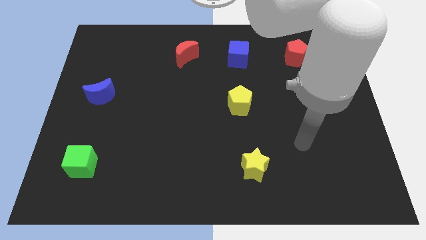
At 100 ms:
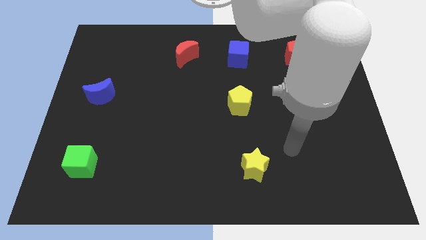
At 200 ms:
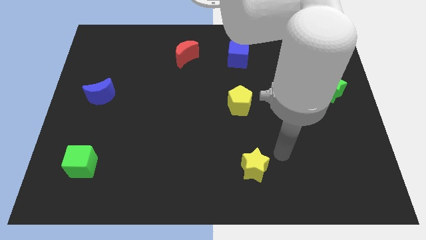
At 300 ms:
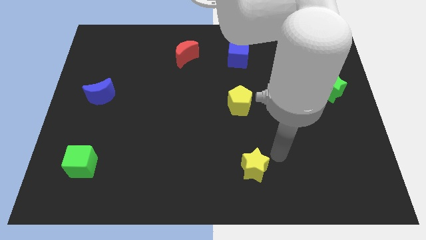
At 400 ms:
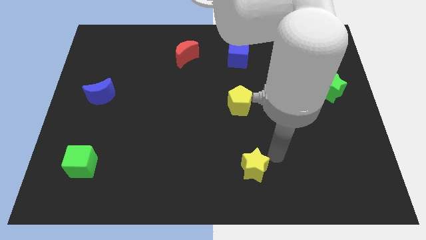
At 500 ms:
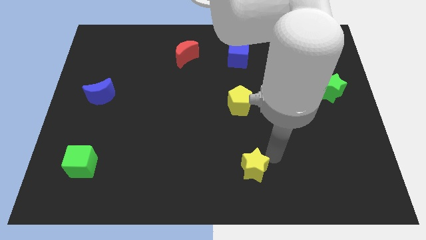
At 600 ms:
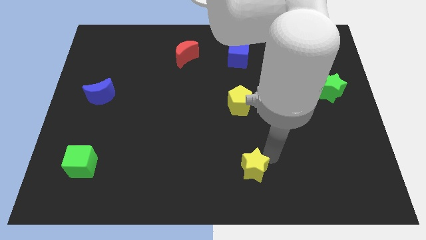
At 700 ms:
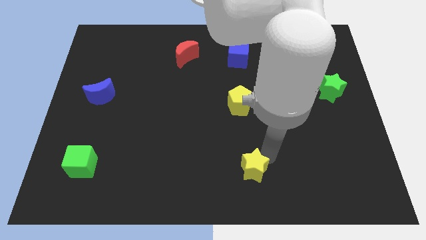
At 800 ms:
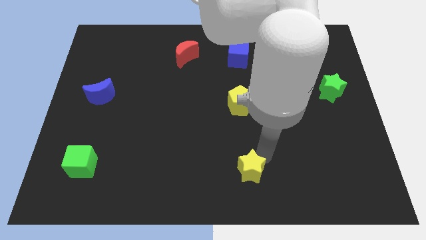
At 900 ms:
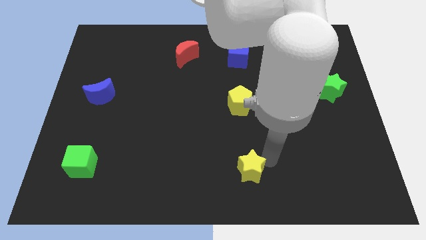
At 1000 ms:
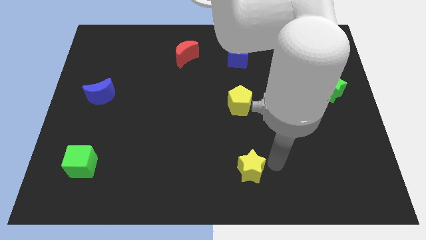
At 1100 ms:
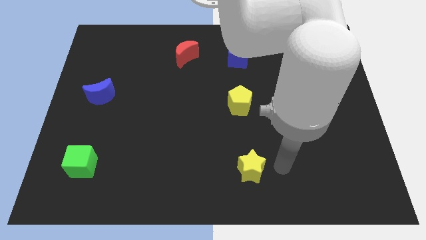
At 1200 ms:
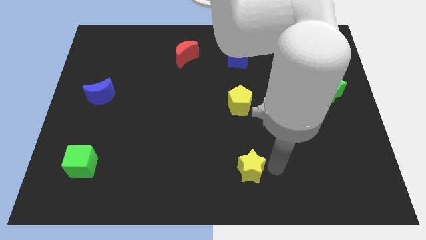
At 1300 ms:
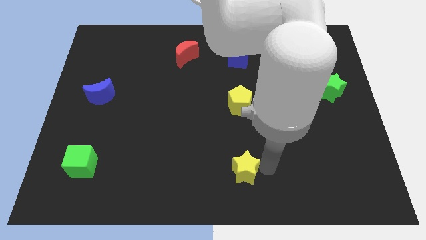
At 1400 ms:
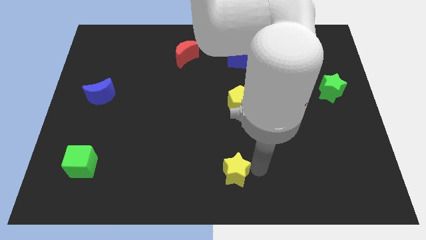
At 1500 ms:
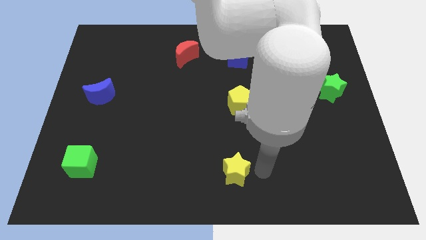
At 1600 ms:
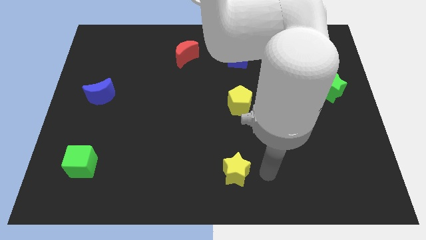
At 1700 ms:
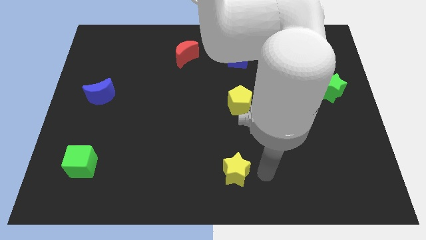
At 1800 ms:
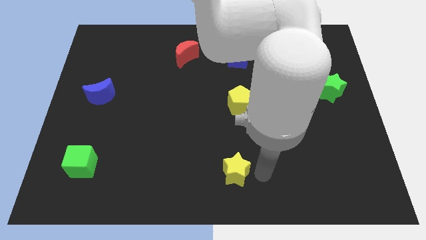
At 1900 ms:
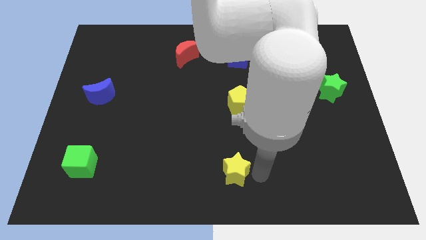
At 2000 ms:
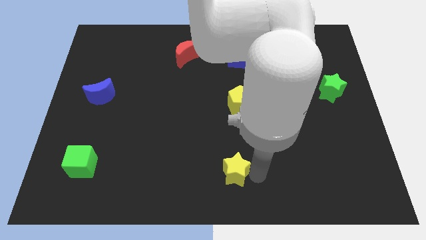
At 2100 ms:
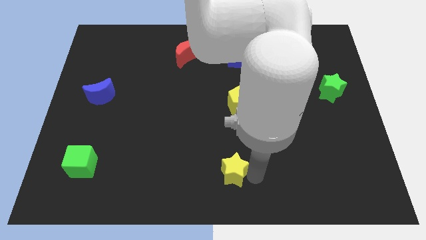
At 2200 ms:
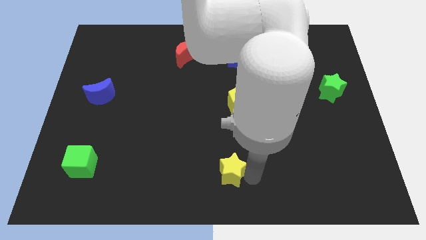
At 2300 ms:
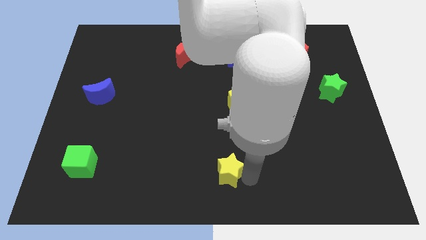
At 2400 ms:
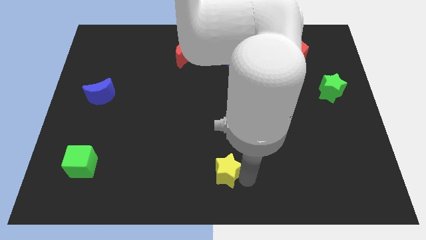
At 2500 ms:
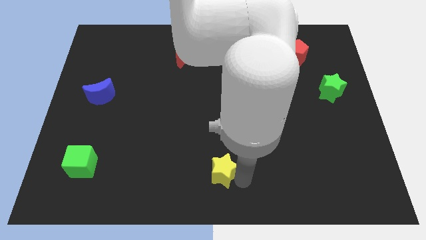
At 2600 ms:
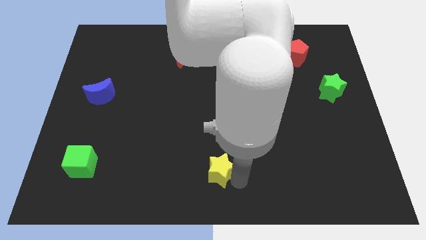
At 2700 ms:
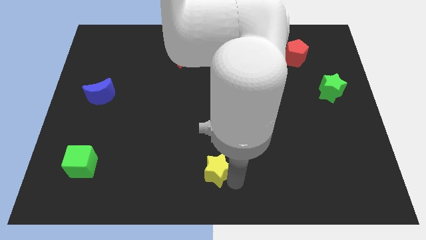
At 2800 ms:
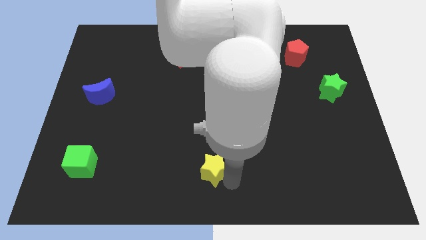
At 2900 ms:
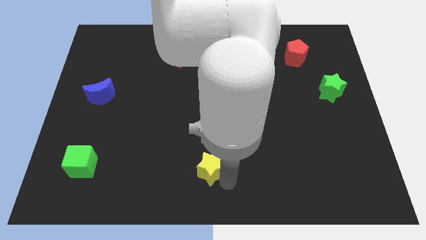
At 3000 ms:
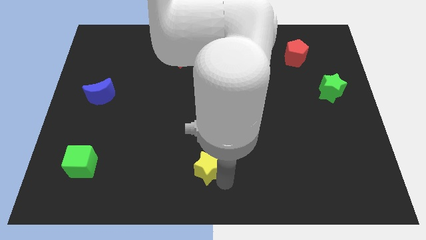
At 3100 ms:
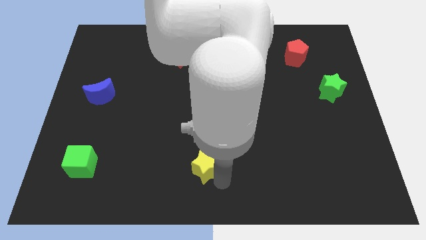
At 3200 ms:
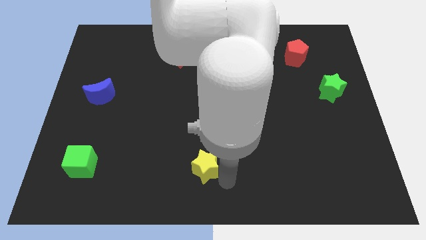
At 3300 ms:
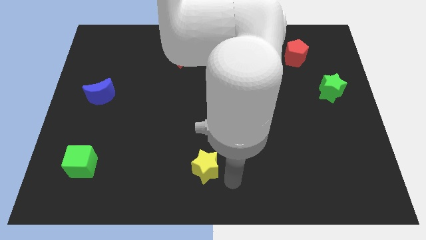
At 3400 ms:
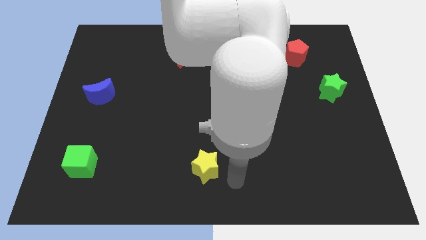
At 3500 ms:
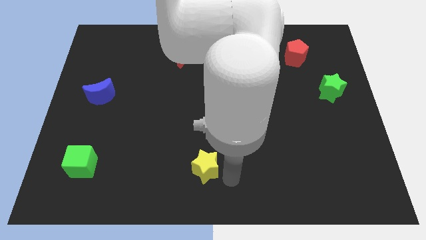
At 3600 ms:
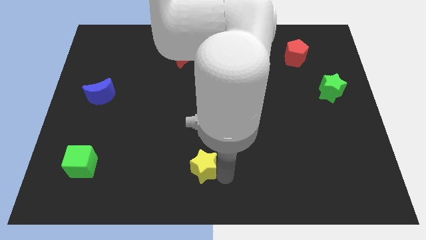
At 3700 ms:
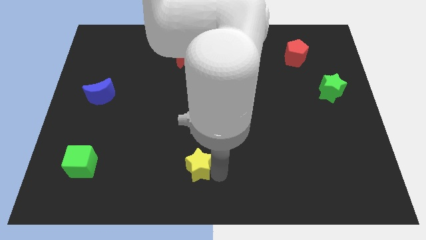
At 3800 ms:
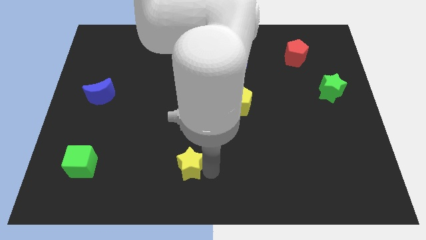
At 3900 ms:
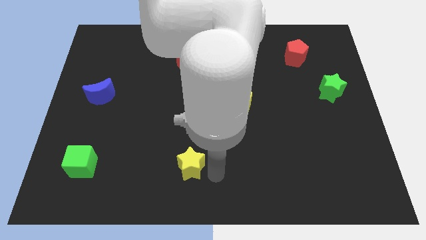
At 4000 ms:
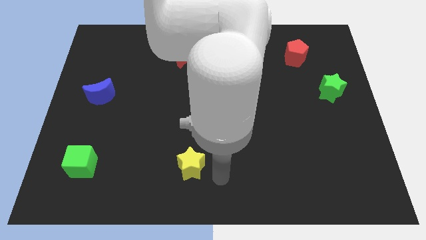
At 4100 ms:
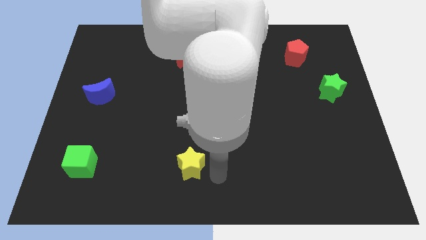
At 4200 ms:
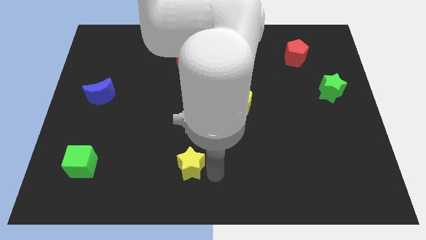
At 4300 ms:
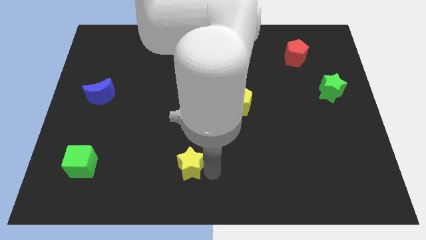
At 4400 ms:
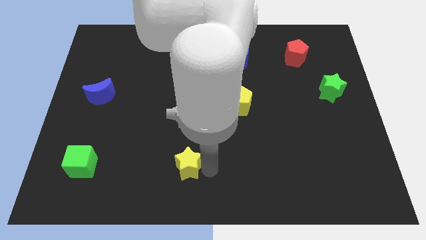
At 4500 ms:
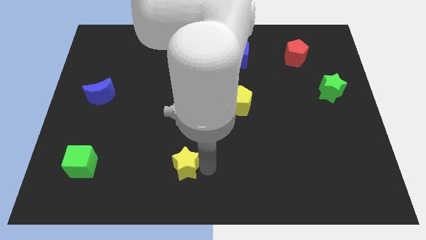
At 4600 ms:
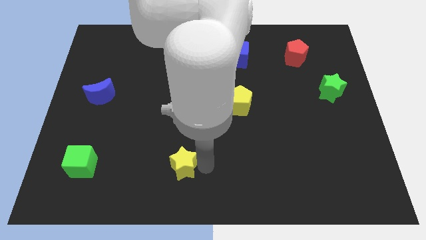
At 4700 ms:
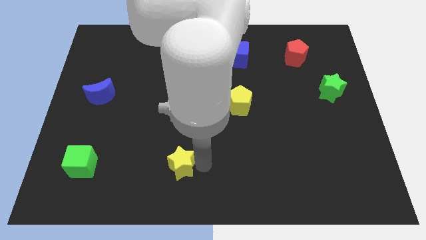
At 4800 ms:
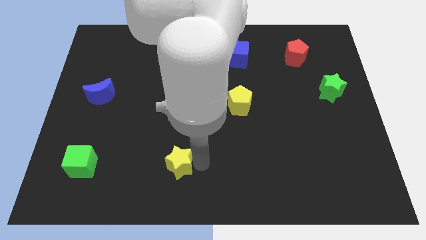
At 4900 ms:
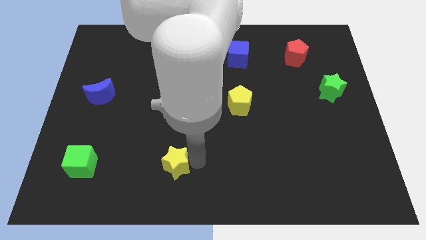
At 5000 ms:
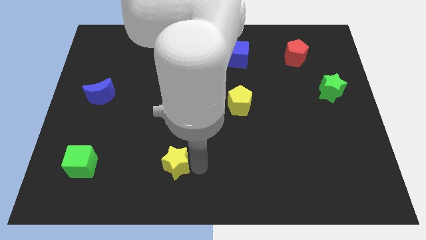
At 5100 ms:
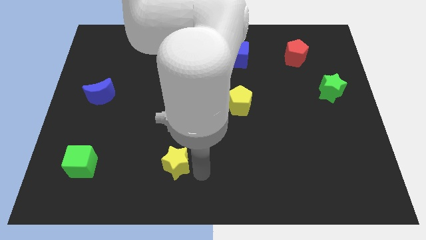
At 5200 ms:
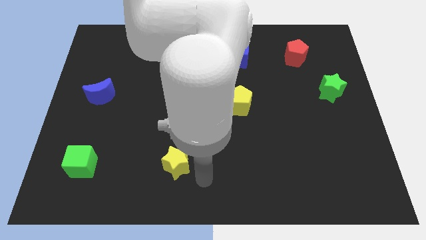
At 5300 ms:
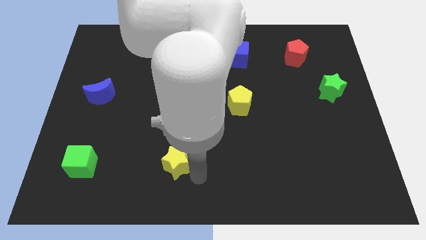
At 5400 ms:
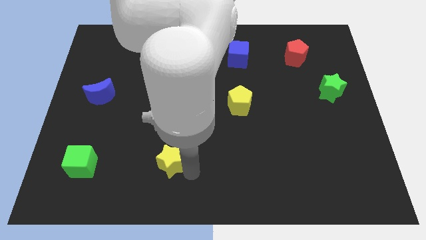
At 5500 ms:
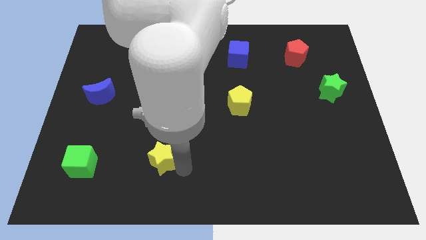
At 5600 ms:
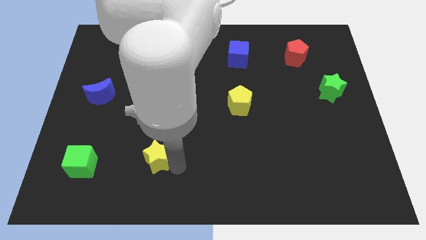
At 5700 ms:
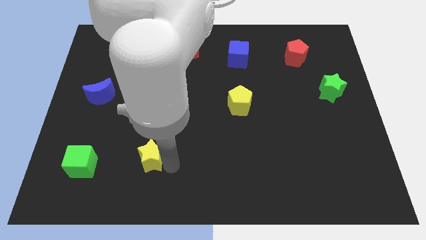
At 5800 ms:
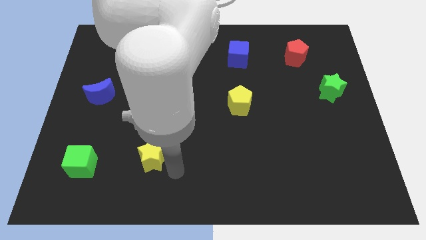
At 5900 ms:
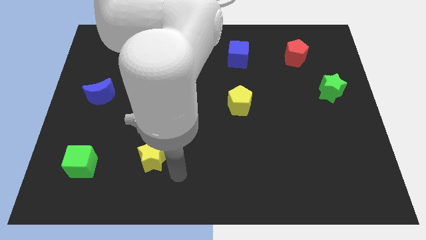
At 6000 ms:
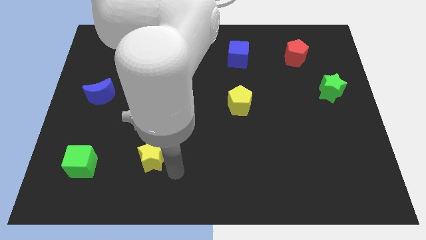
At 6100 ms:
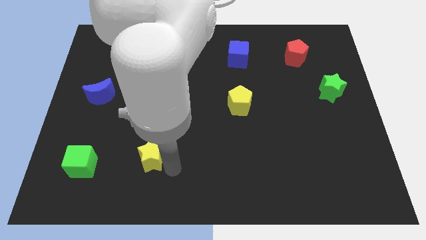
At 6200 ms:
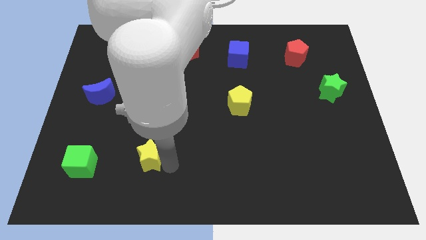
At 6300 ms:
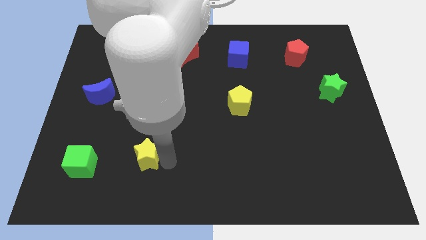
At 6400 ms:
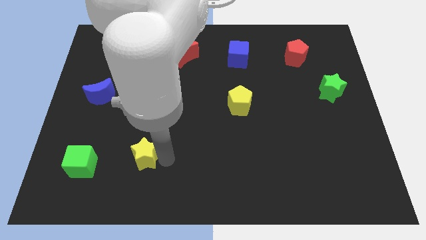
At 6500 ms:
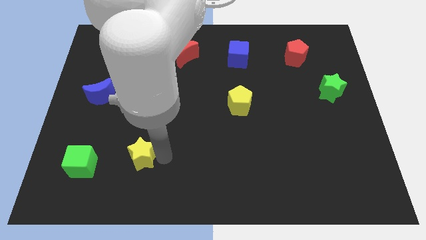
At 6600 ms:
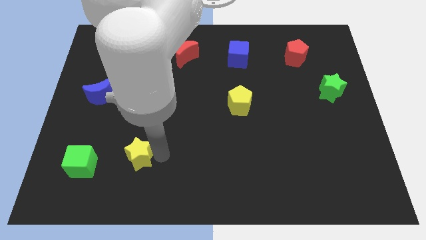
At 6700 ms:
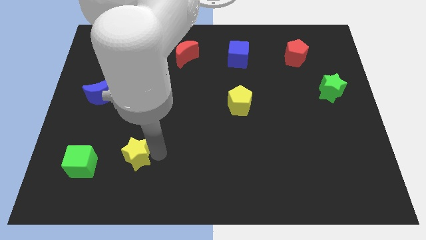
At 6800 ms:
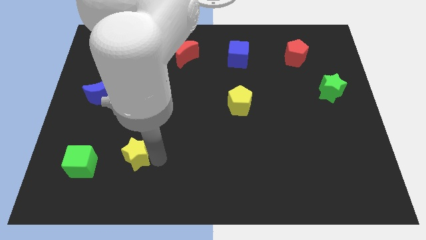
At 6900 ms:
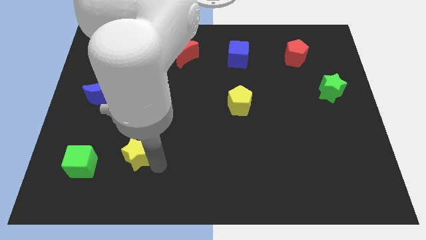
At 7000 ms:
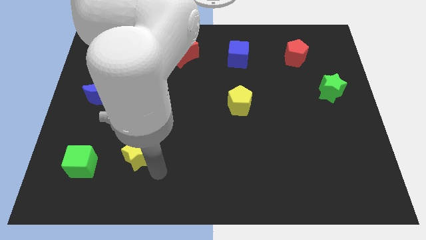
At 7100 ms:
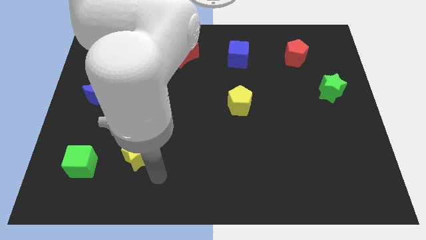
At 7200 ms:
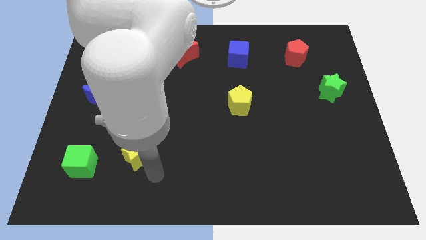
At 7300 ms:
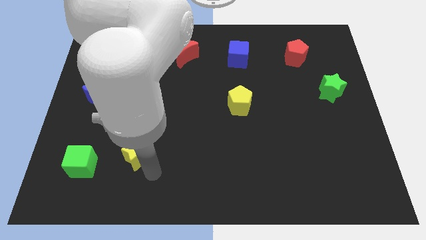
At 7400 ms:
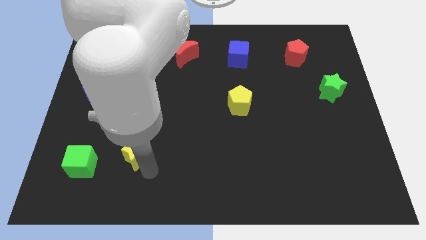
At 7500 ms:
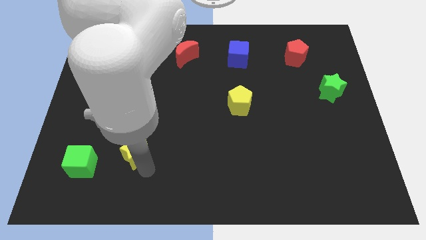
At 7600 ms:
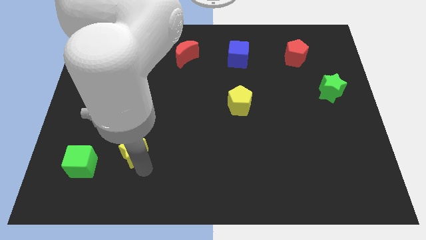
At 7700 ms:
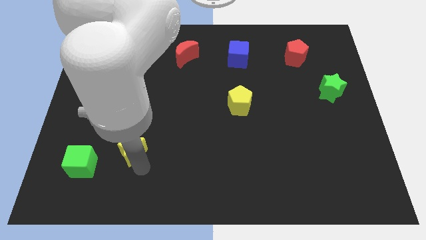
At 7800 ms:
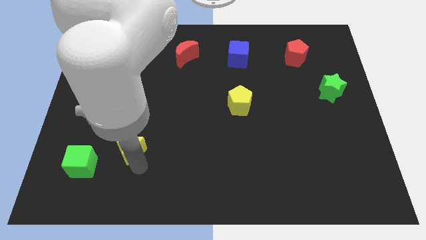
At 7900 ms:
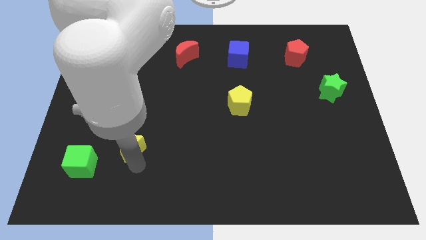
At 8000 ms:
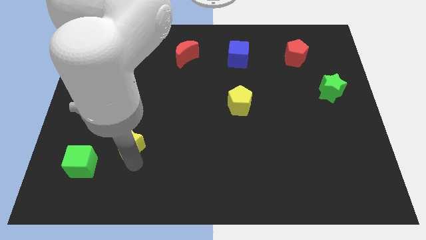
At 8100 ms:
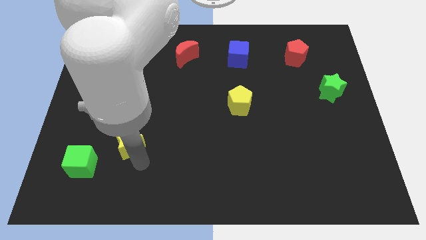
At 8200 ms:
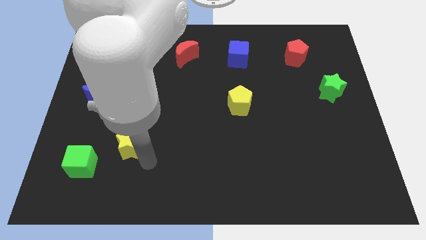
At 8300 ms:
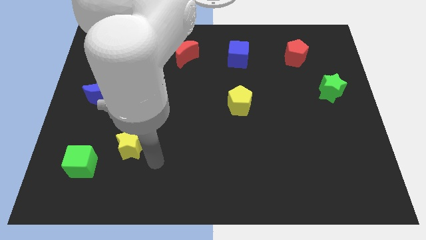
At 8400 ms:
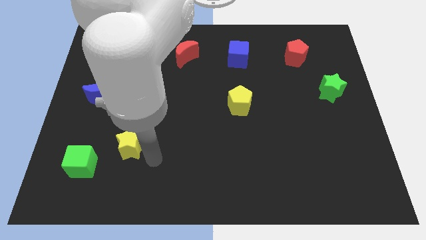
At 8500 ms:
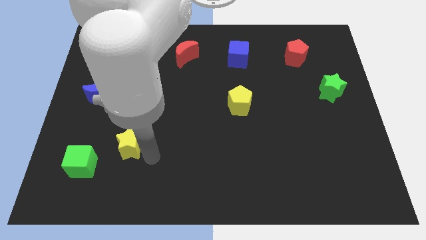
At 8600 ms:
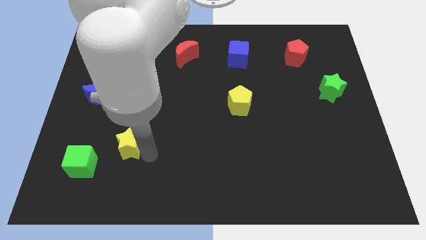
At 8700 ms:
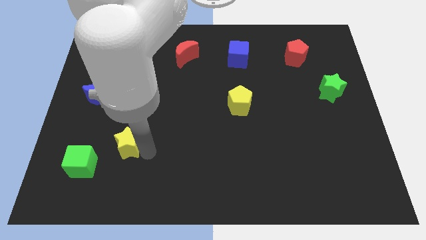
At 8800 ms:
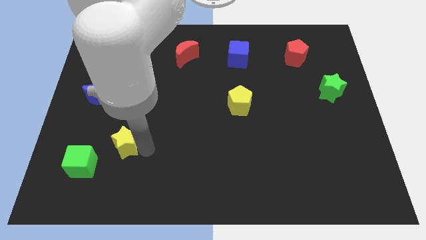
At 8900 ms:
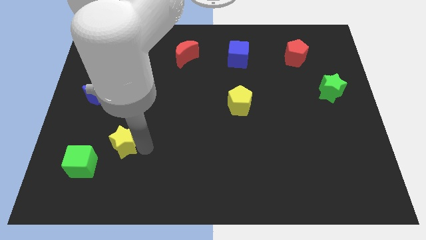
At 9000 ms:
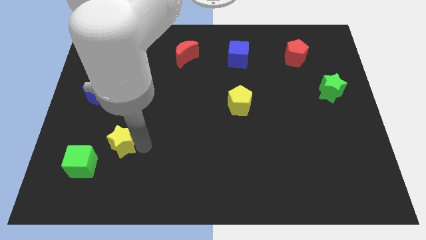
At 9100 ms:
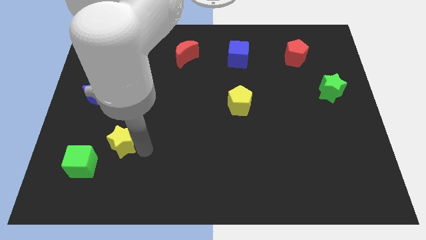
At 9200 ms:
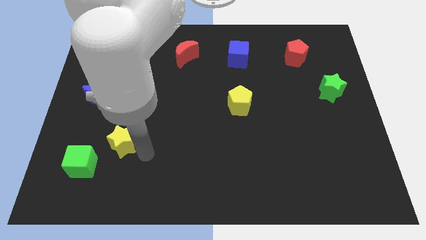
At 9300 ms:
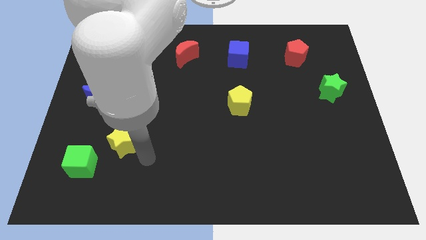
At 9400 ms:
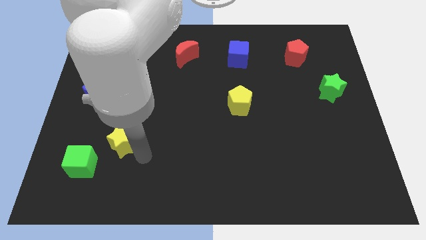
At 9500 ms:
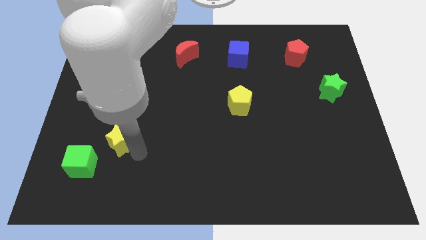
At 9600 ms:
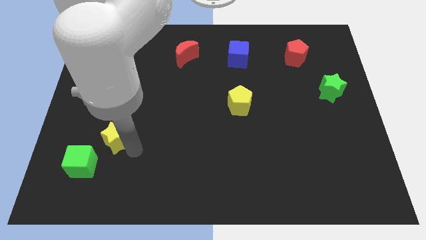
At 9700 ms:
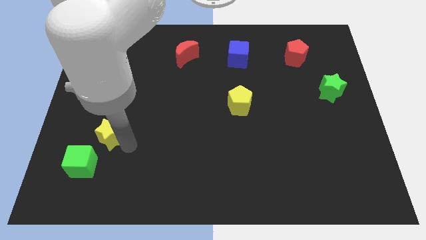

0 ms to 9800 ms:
move the yellow star below the blue moon
